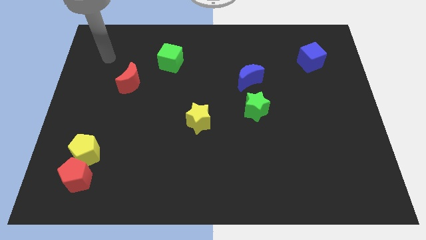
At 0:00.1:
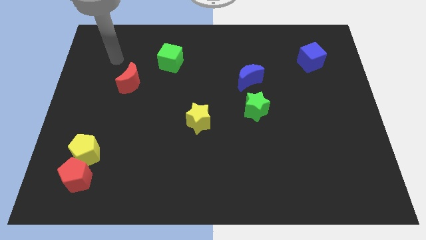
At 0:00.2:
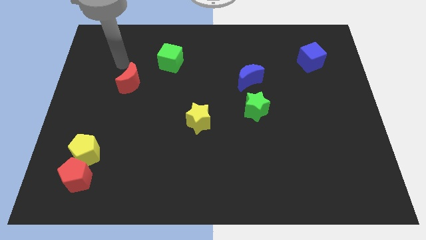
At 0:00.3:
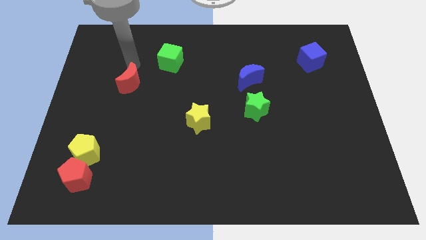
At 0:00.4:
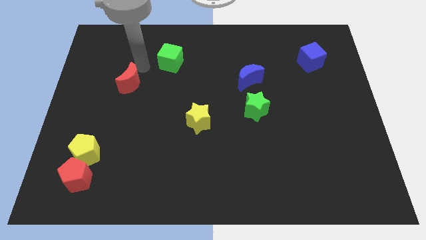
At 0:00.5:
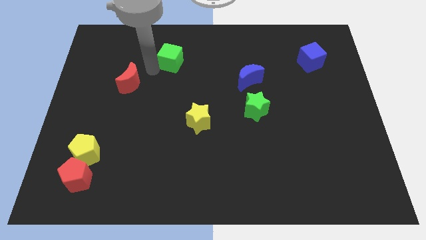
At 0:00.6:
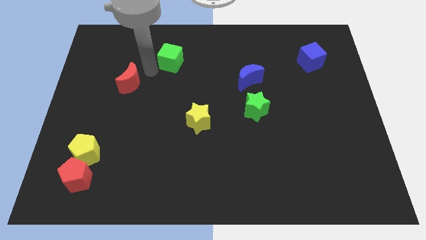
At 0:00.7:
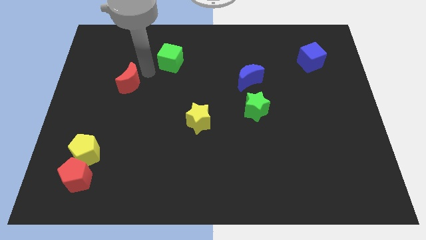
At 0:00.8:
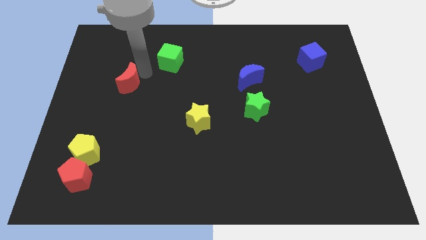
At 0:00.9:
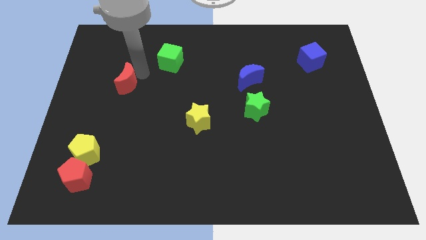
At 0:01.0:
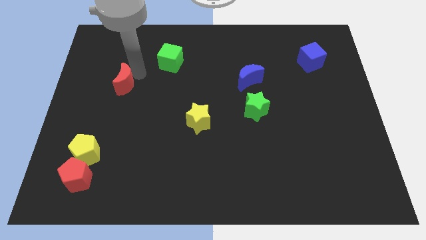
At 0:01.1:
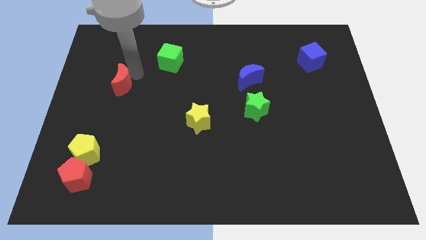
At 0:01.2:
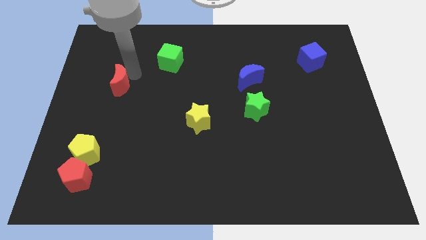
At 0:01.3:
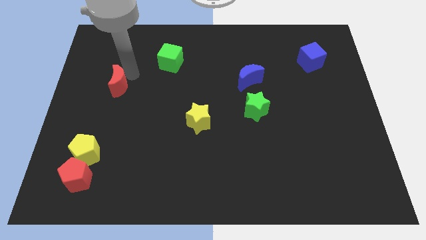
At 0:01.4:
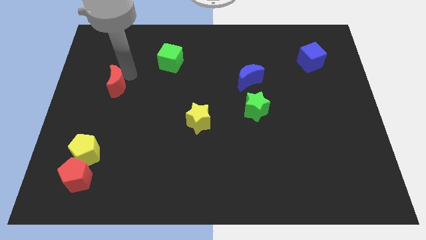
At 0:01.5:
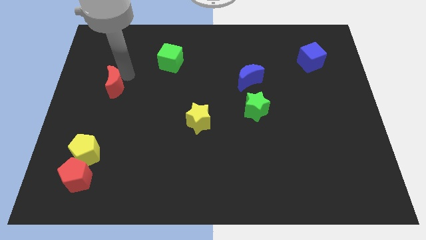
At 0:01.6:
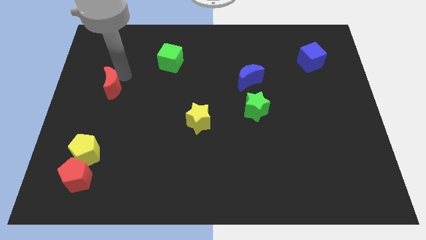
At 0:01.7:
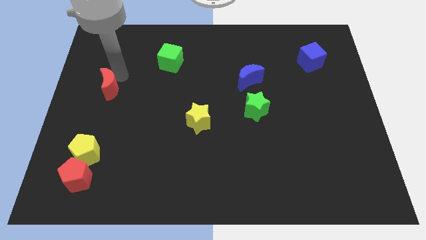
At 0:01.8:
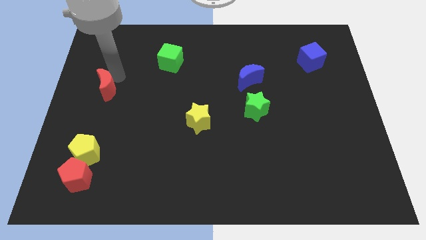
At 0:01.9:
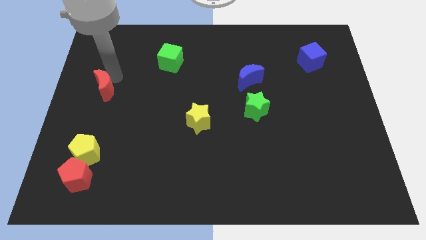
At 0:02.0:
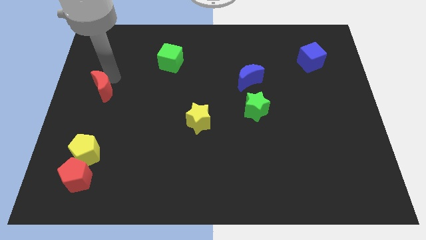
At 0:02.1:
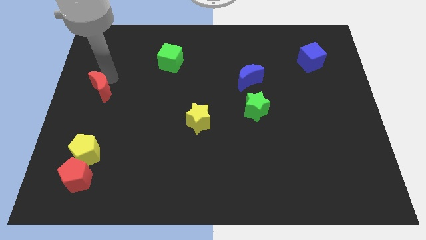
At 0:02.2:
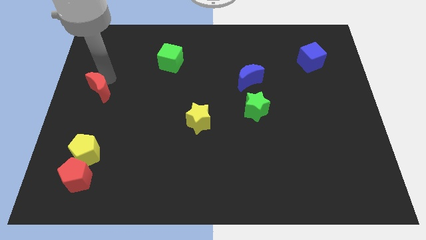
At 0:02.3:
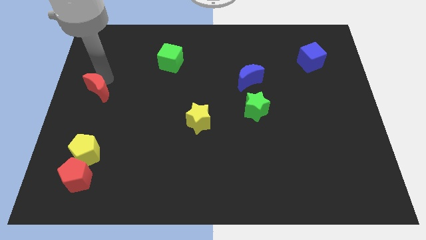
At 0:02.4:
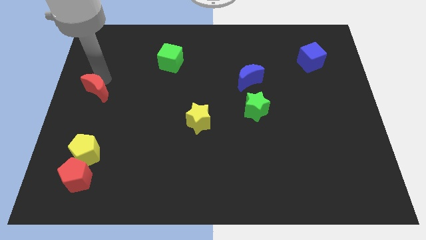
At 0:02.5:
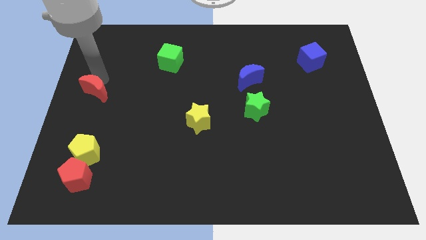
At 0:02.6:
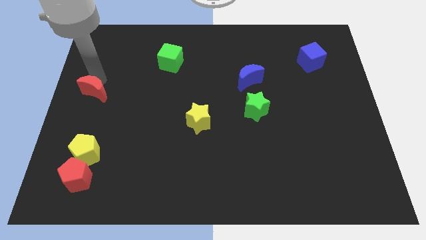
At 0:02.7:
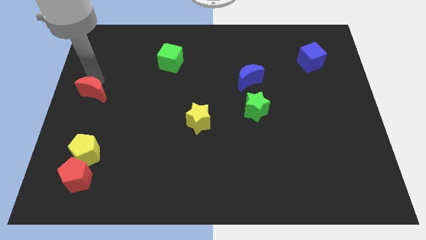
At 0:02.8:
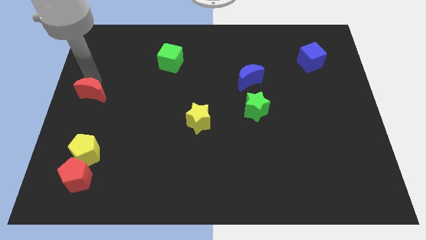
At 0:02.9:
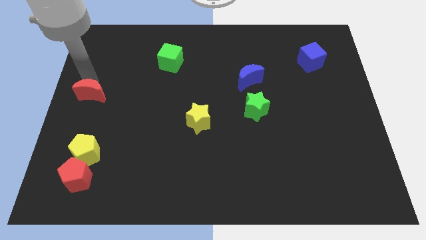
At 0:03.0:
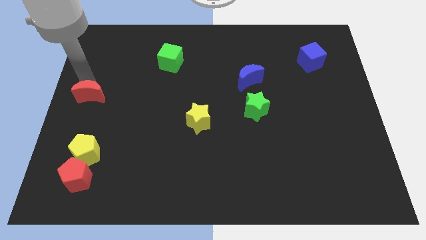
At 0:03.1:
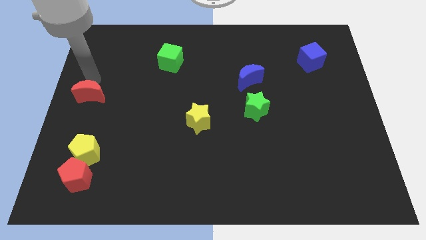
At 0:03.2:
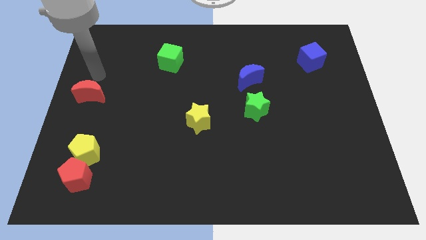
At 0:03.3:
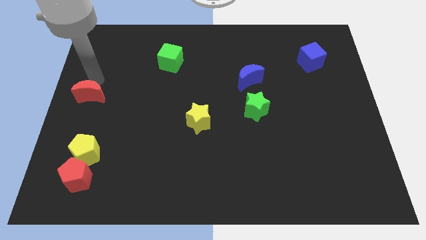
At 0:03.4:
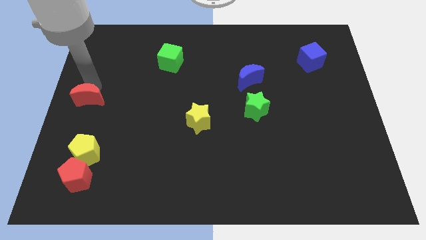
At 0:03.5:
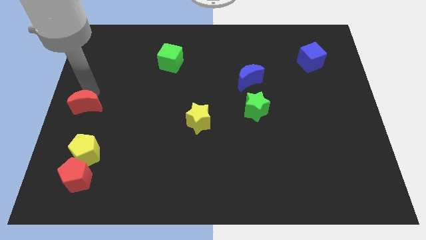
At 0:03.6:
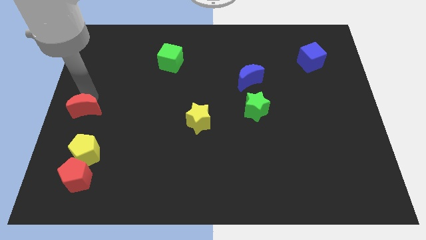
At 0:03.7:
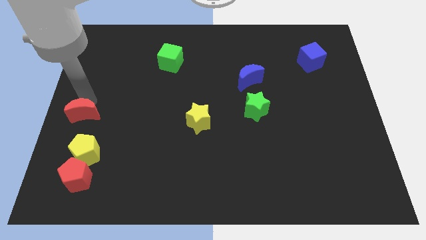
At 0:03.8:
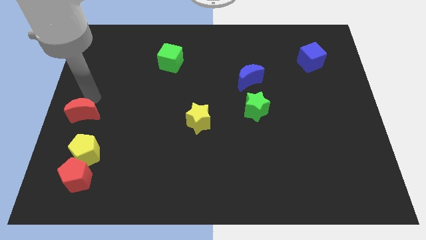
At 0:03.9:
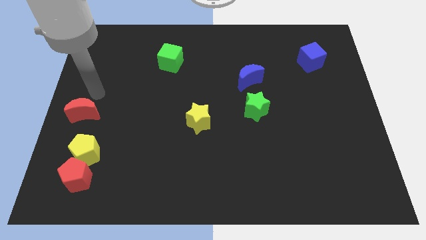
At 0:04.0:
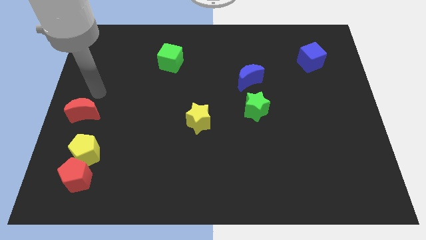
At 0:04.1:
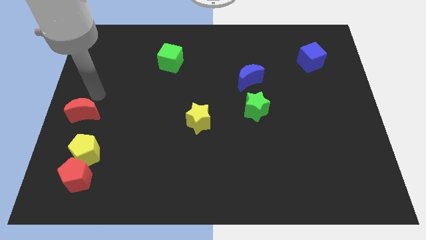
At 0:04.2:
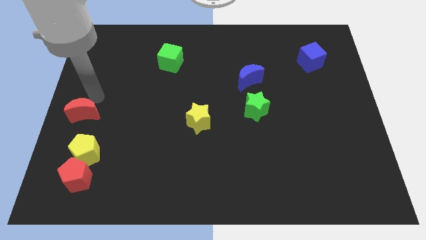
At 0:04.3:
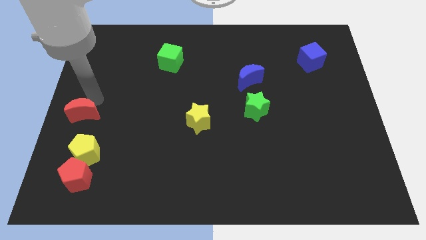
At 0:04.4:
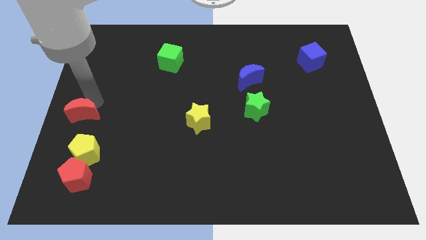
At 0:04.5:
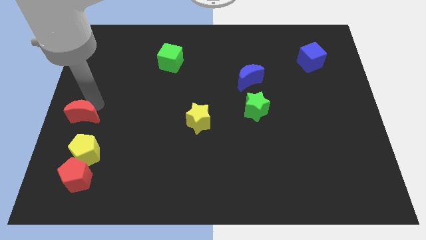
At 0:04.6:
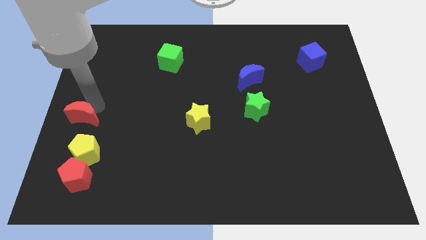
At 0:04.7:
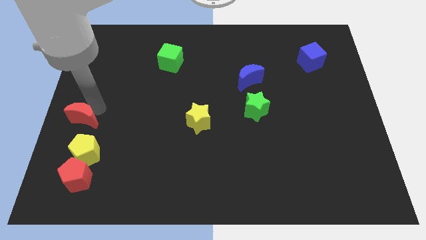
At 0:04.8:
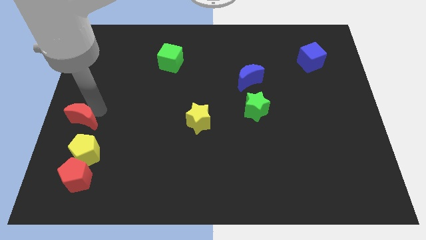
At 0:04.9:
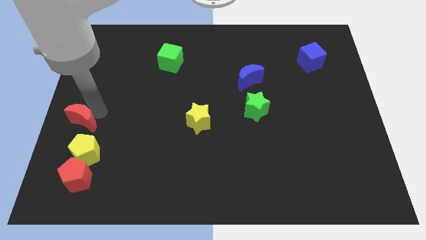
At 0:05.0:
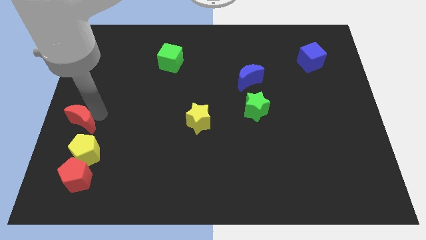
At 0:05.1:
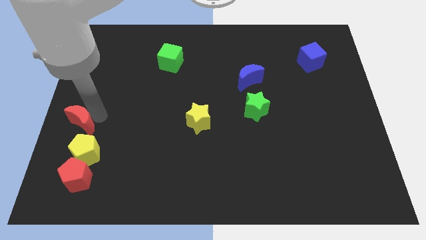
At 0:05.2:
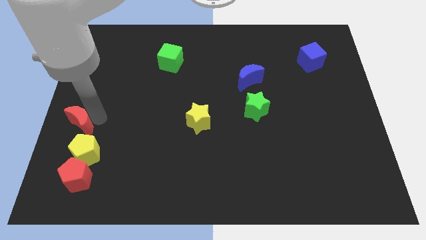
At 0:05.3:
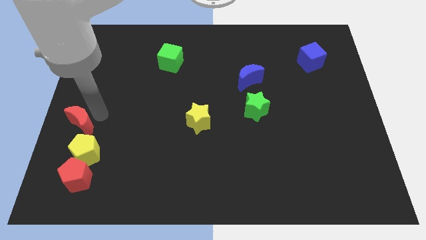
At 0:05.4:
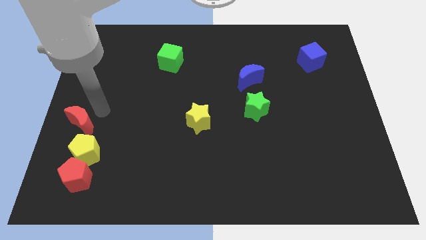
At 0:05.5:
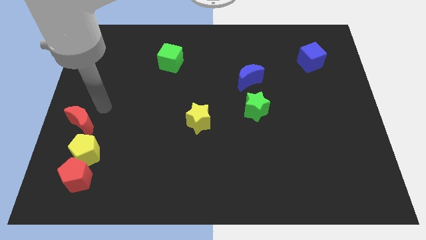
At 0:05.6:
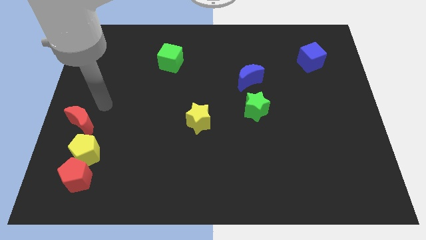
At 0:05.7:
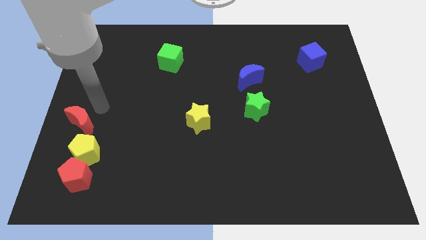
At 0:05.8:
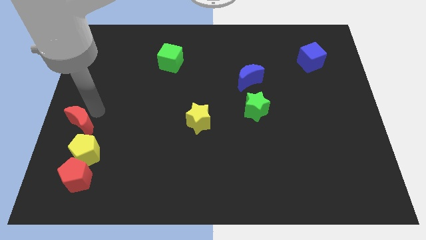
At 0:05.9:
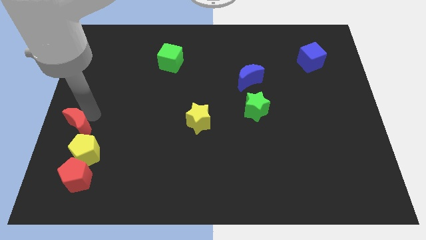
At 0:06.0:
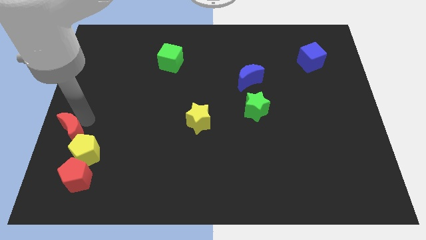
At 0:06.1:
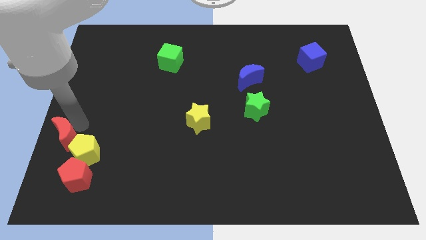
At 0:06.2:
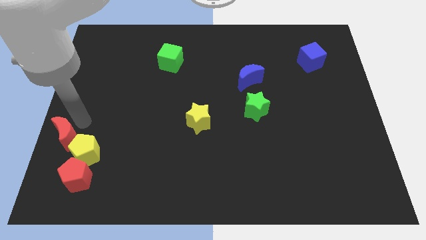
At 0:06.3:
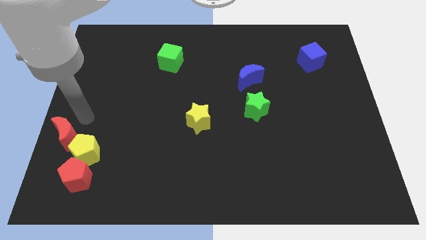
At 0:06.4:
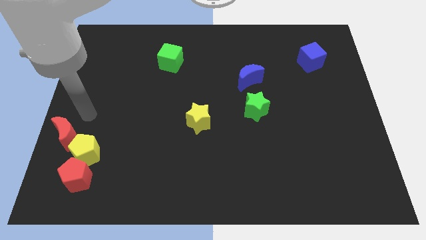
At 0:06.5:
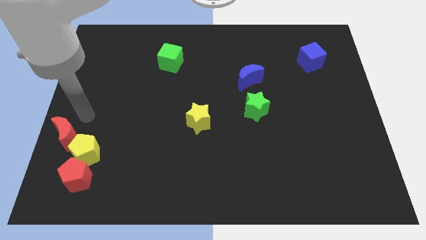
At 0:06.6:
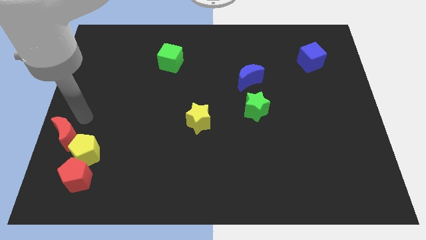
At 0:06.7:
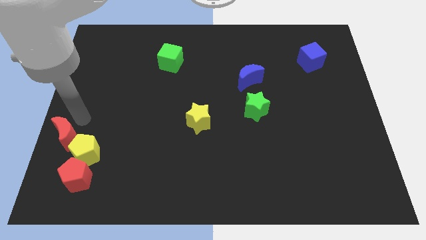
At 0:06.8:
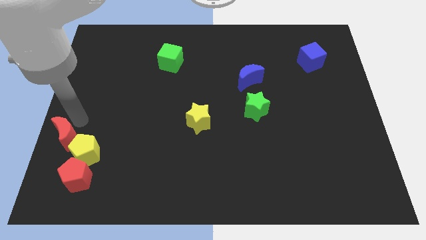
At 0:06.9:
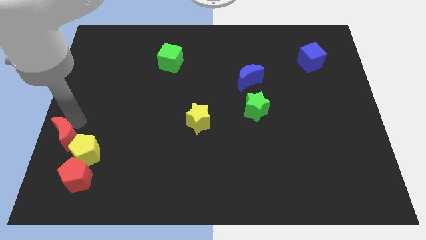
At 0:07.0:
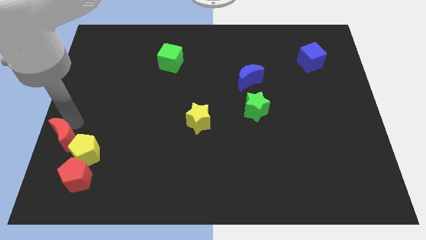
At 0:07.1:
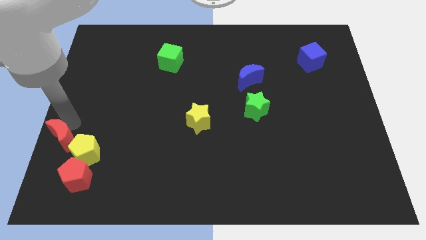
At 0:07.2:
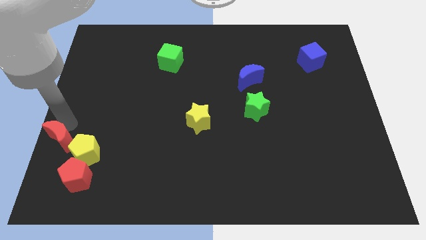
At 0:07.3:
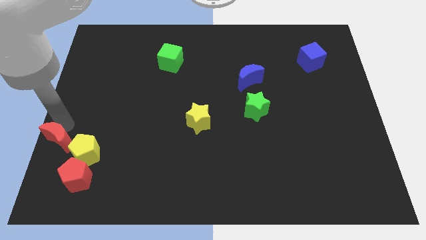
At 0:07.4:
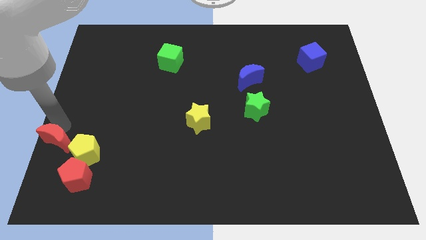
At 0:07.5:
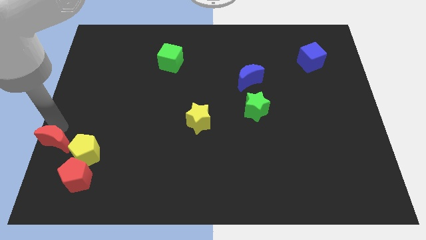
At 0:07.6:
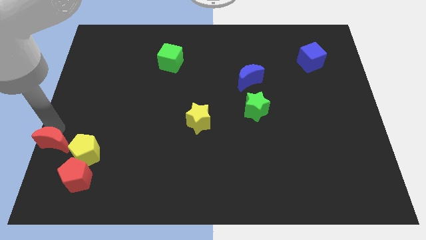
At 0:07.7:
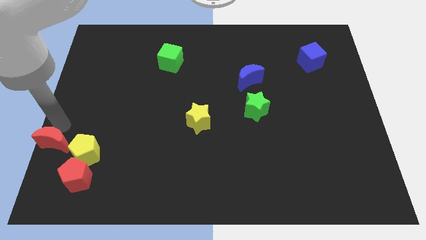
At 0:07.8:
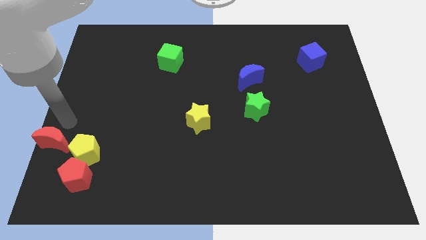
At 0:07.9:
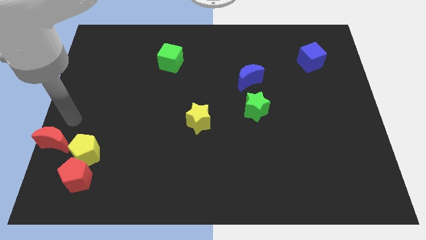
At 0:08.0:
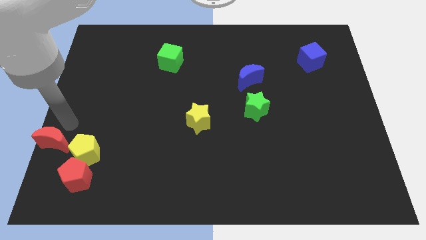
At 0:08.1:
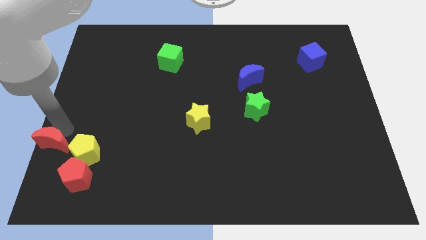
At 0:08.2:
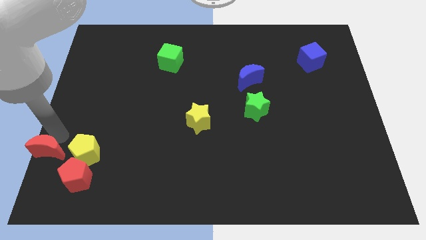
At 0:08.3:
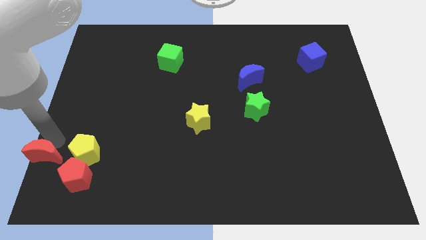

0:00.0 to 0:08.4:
push the red moon to the bottom left corner
